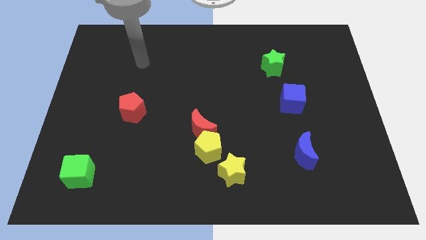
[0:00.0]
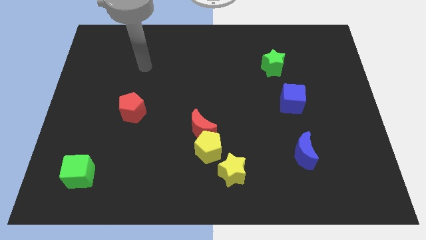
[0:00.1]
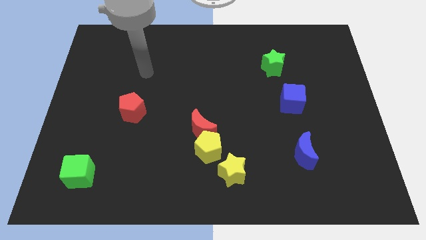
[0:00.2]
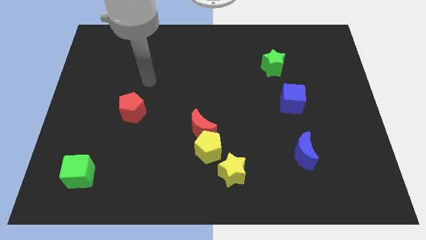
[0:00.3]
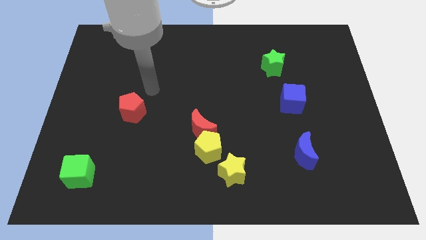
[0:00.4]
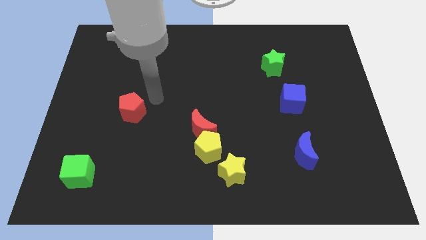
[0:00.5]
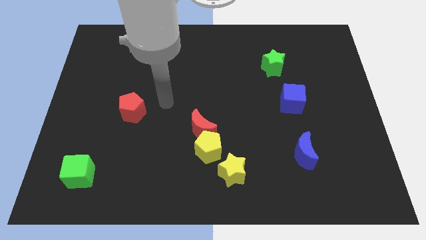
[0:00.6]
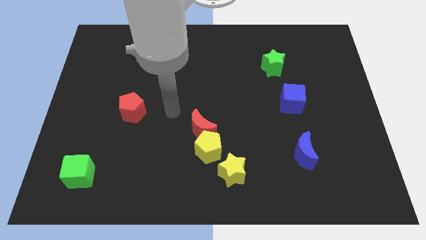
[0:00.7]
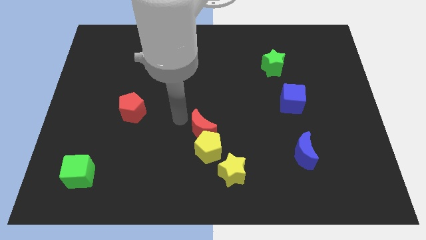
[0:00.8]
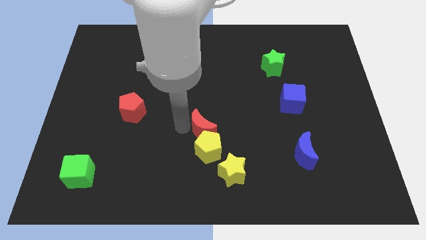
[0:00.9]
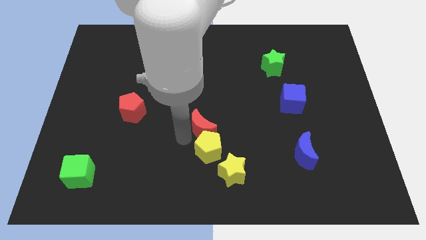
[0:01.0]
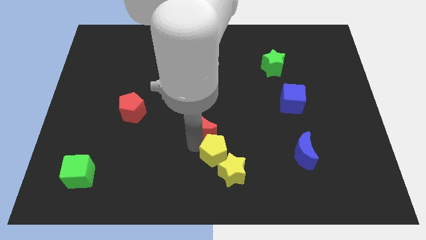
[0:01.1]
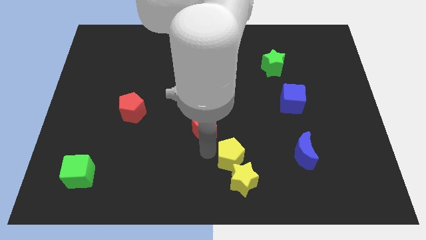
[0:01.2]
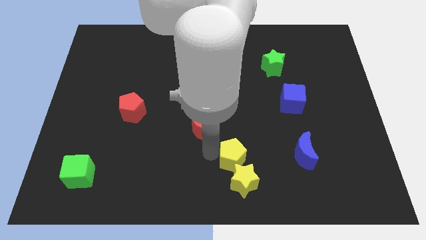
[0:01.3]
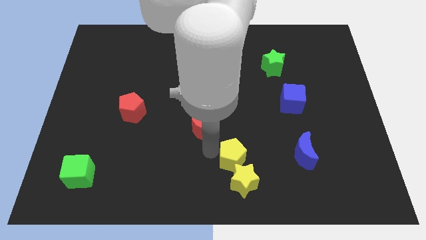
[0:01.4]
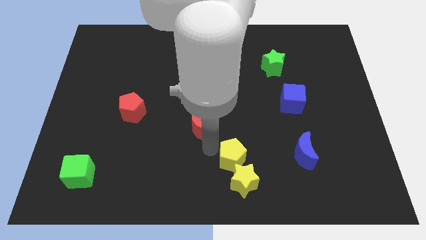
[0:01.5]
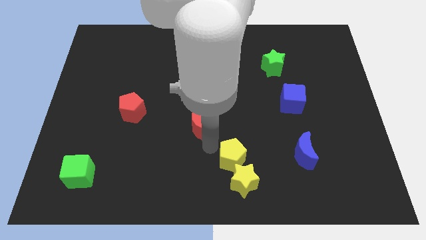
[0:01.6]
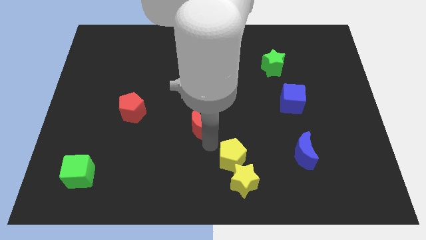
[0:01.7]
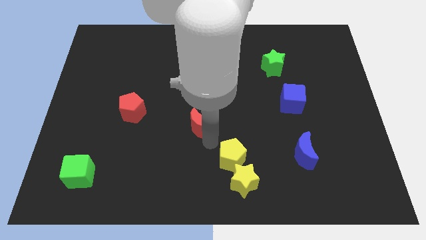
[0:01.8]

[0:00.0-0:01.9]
separate the red moon from the yellow pentagon

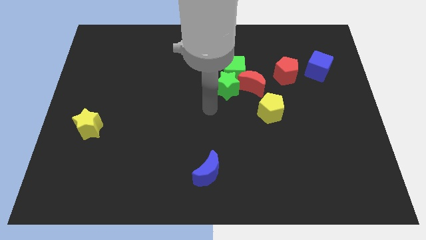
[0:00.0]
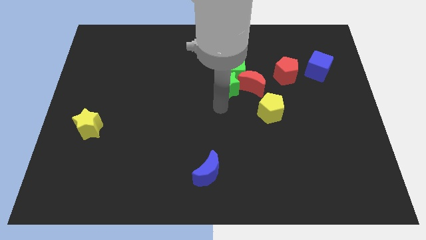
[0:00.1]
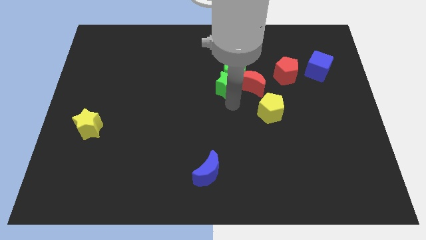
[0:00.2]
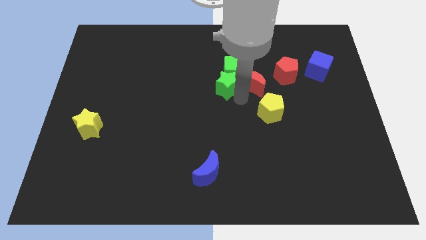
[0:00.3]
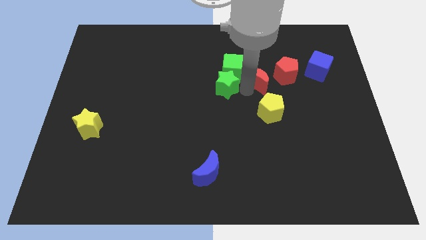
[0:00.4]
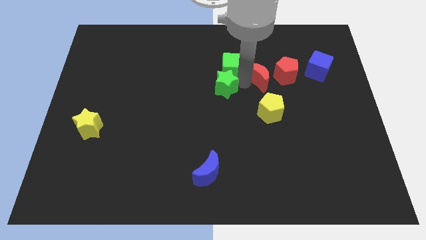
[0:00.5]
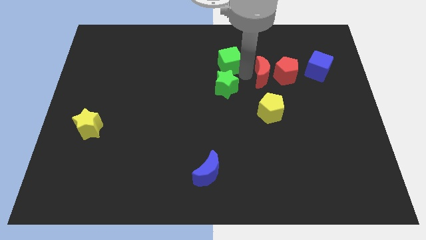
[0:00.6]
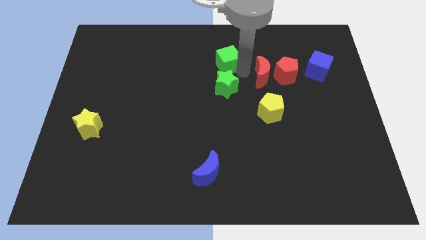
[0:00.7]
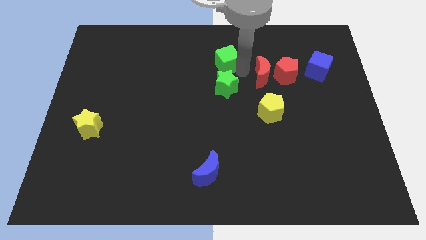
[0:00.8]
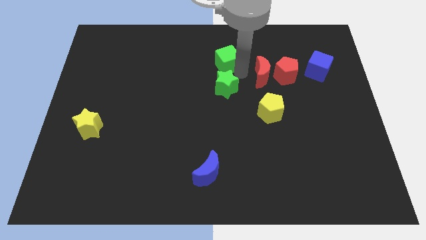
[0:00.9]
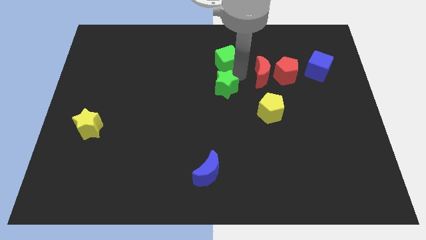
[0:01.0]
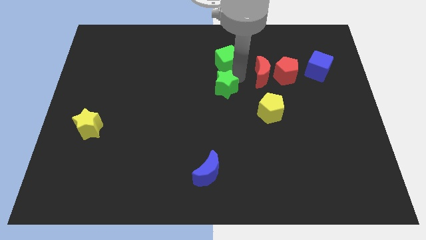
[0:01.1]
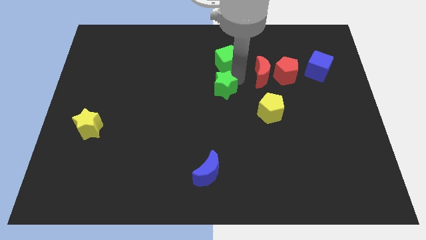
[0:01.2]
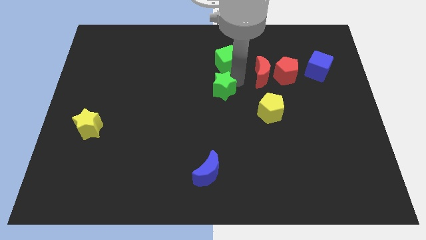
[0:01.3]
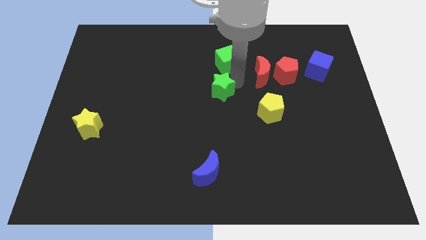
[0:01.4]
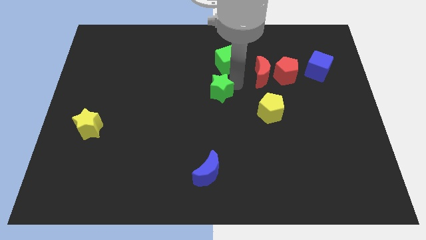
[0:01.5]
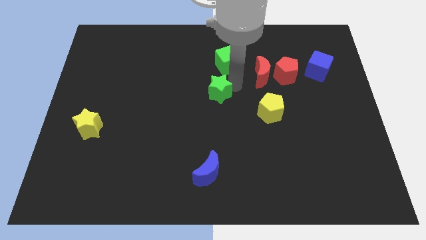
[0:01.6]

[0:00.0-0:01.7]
move the green star away from the green cube and red moon

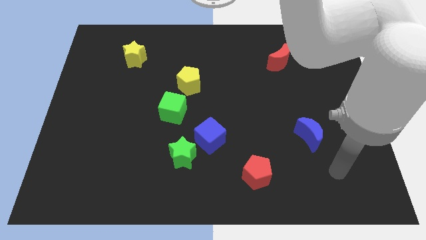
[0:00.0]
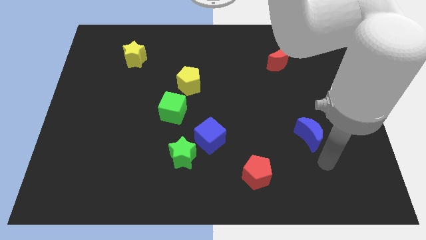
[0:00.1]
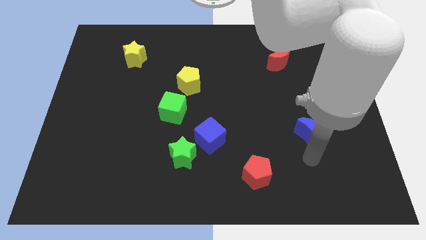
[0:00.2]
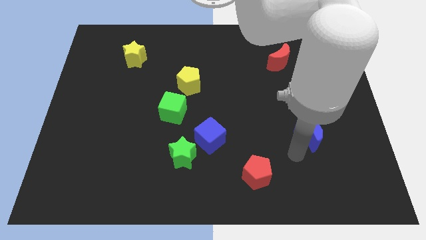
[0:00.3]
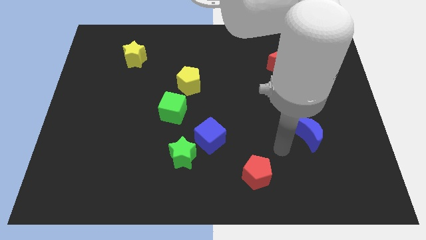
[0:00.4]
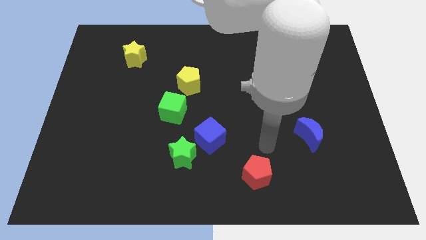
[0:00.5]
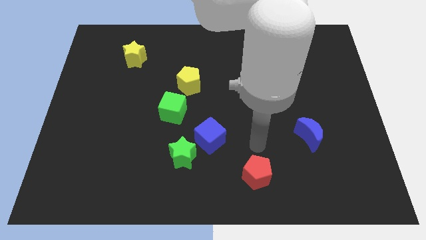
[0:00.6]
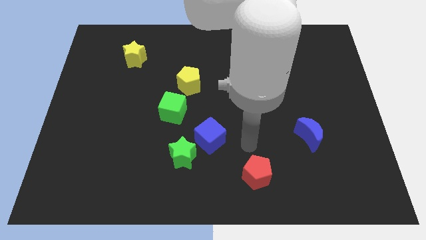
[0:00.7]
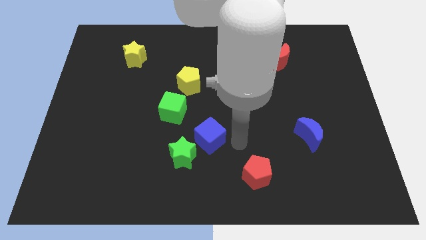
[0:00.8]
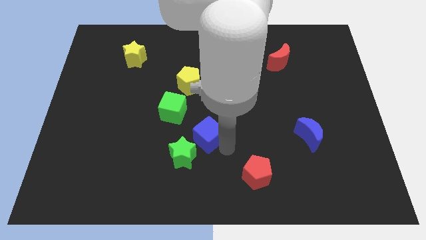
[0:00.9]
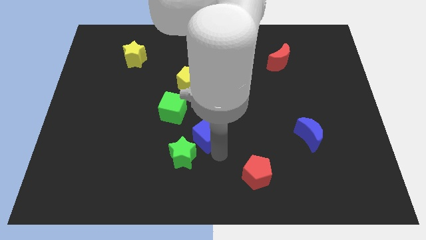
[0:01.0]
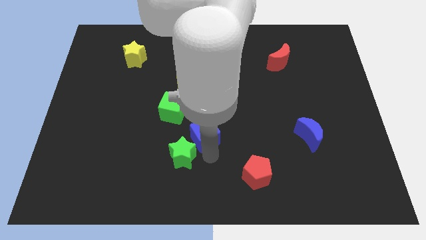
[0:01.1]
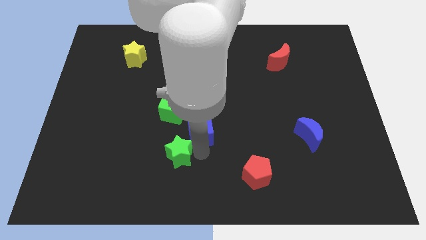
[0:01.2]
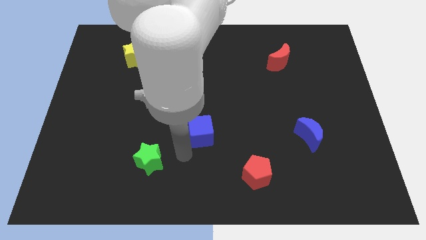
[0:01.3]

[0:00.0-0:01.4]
separate the blue cube from the green star

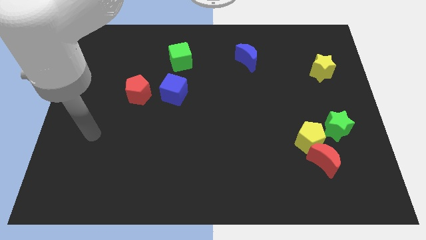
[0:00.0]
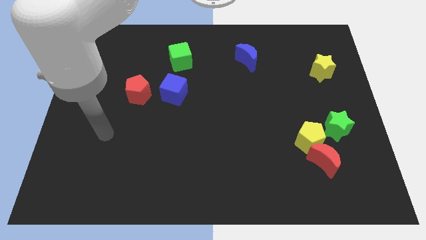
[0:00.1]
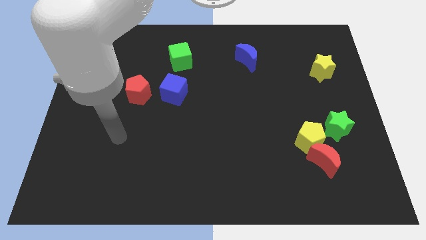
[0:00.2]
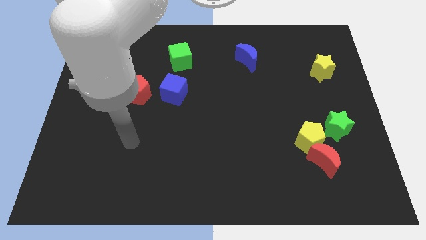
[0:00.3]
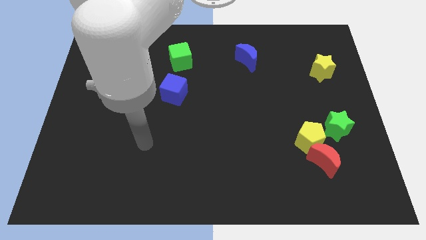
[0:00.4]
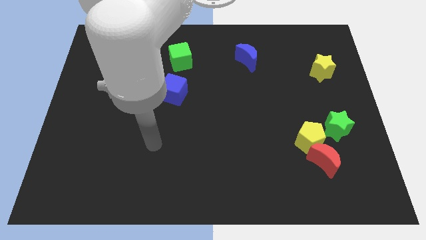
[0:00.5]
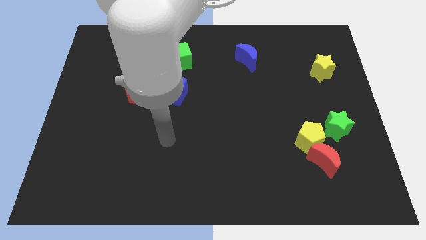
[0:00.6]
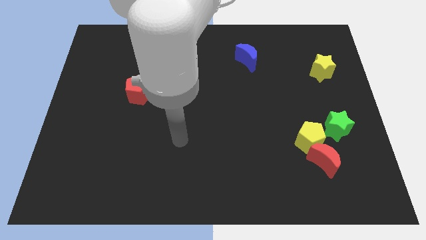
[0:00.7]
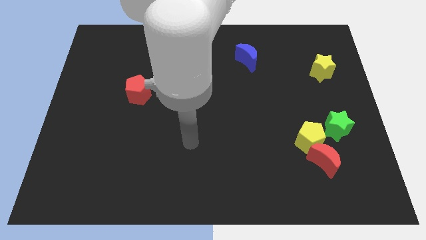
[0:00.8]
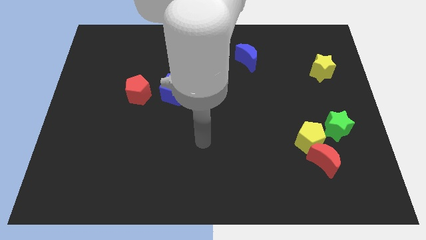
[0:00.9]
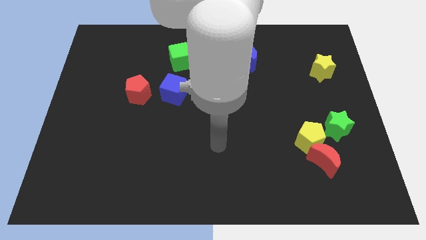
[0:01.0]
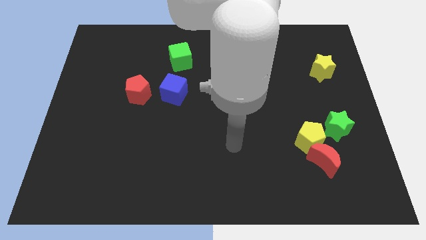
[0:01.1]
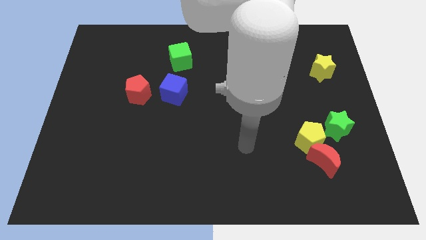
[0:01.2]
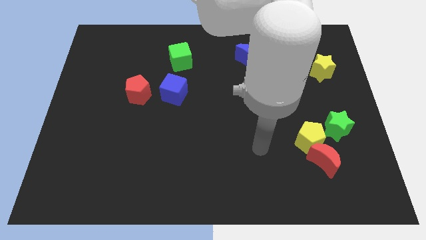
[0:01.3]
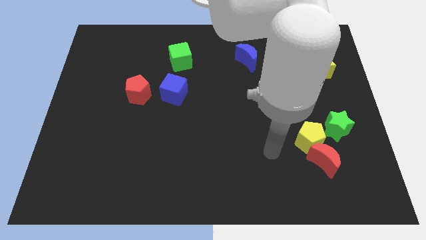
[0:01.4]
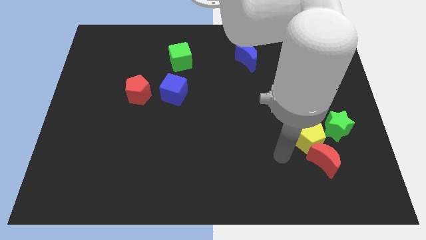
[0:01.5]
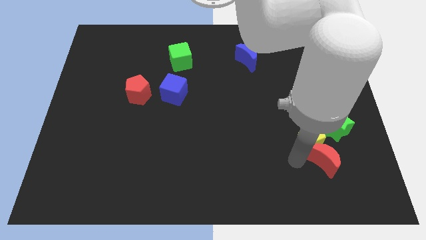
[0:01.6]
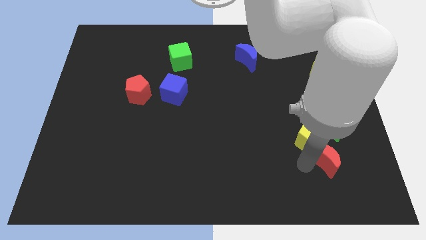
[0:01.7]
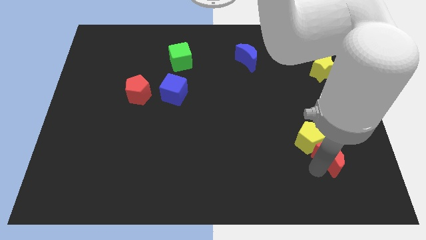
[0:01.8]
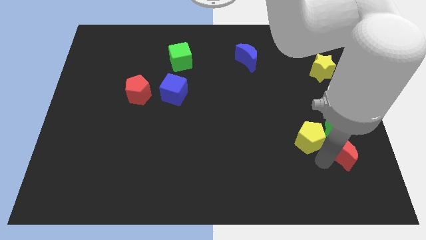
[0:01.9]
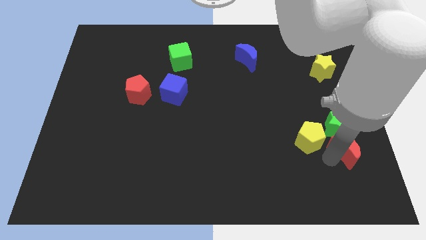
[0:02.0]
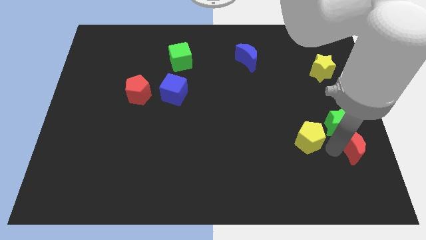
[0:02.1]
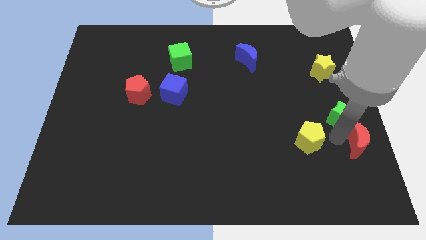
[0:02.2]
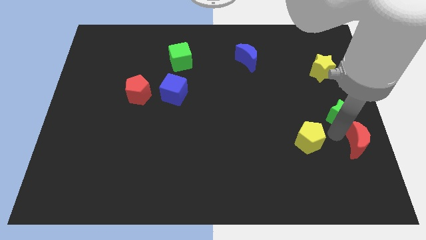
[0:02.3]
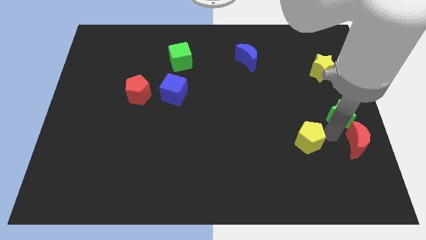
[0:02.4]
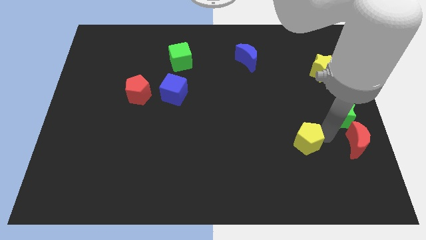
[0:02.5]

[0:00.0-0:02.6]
move the yellow pentagon away from the red moon and green star

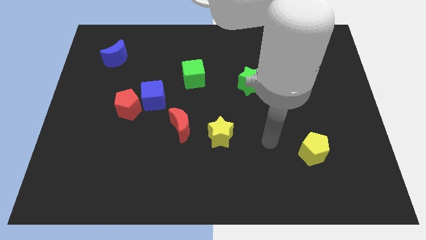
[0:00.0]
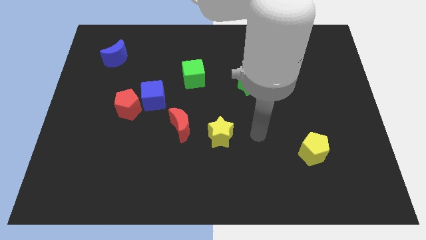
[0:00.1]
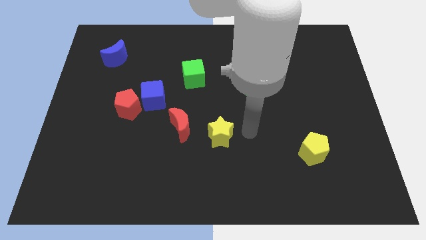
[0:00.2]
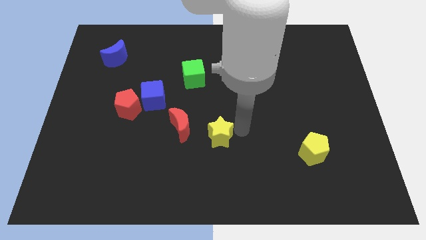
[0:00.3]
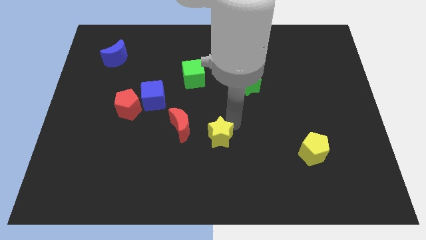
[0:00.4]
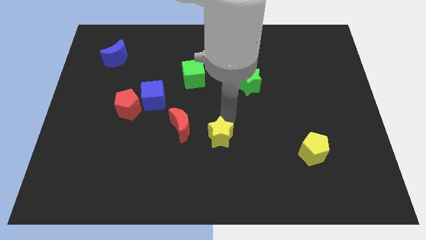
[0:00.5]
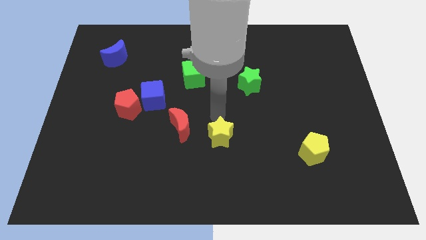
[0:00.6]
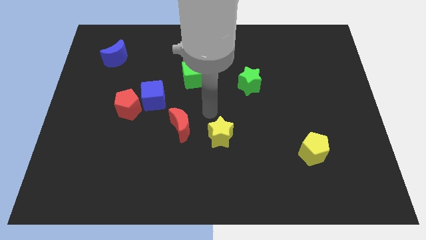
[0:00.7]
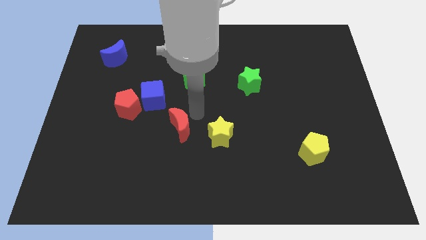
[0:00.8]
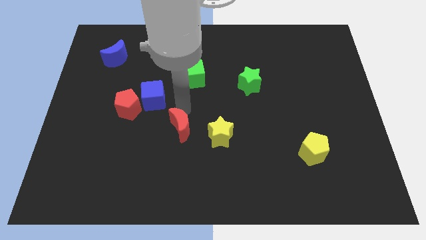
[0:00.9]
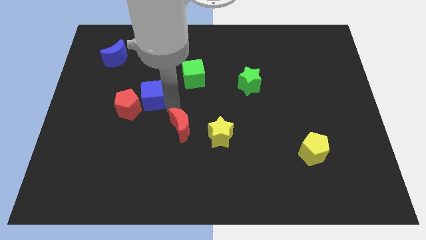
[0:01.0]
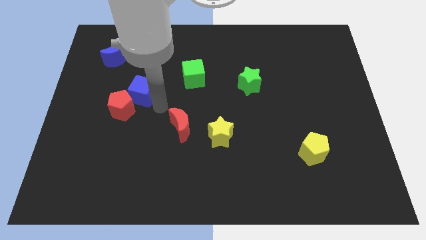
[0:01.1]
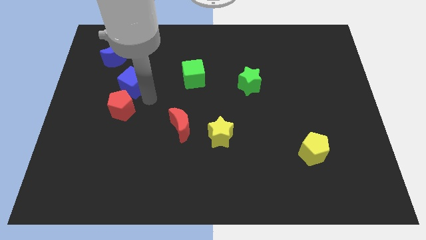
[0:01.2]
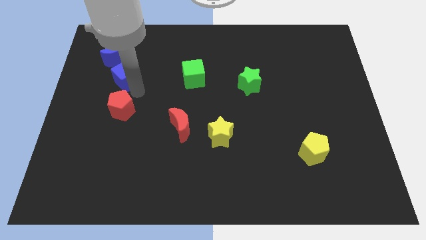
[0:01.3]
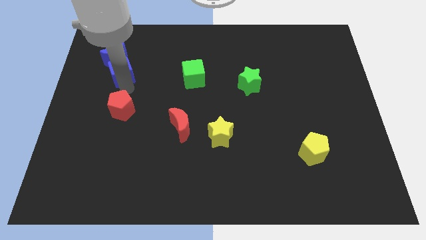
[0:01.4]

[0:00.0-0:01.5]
move the red pentagon away from the blue cube

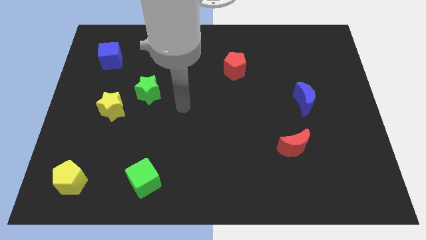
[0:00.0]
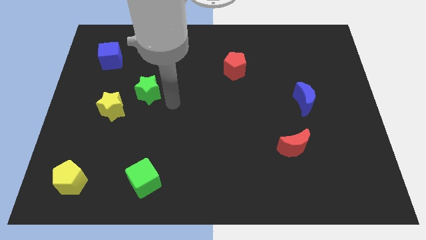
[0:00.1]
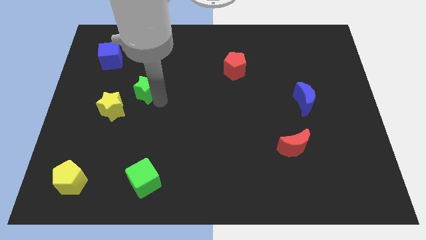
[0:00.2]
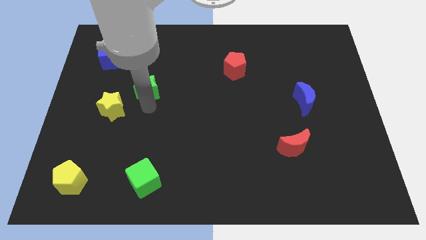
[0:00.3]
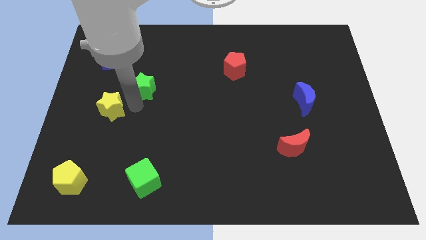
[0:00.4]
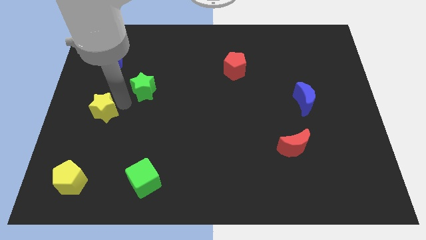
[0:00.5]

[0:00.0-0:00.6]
pull the green star apart from the yellow star
